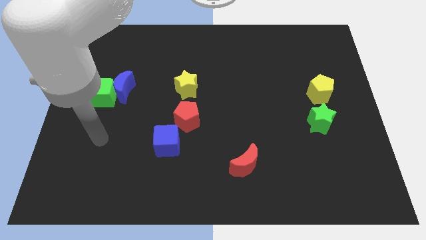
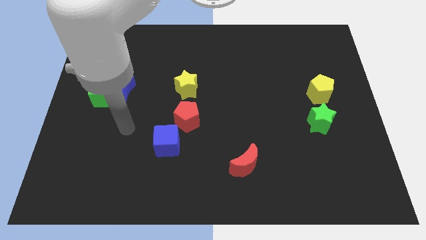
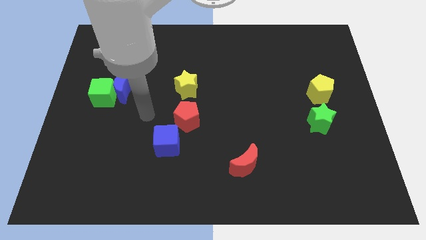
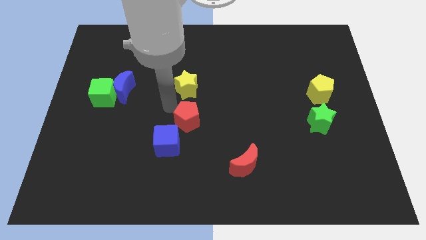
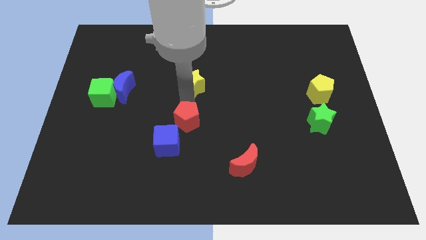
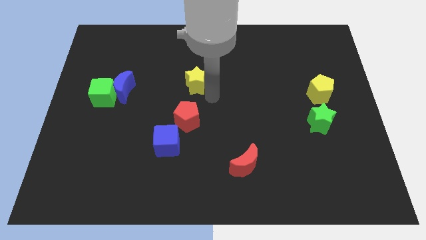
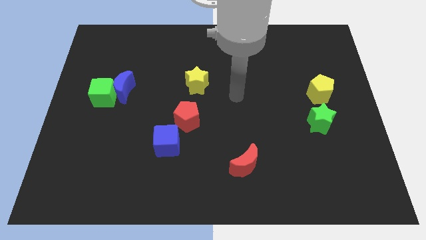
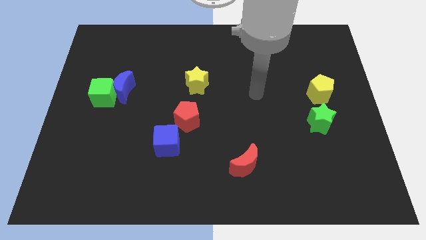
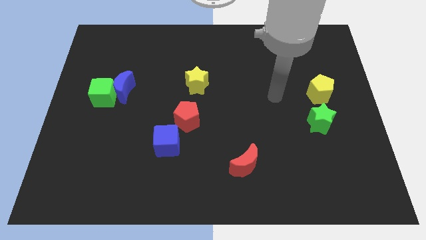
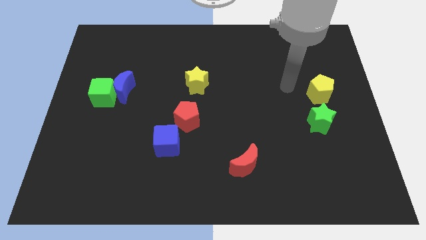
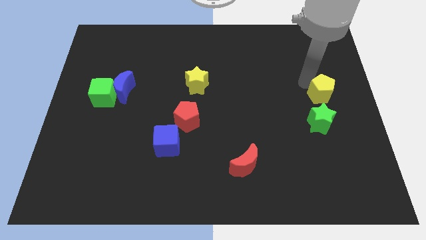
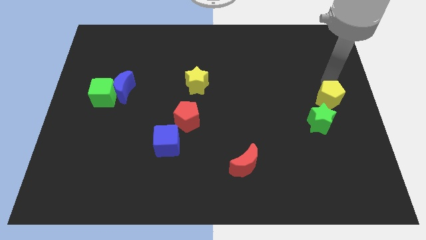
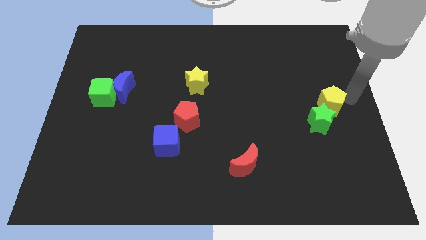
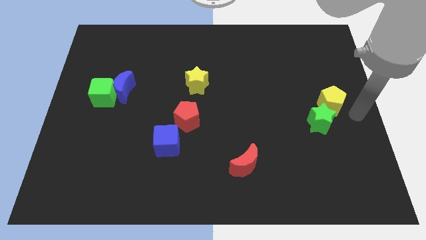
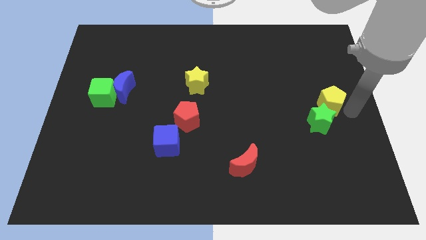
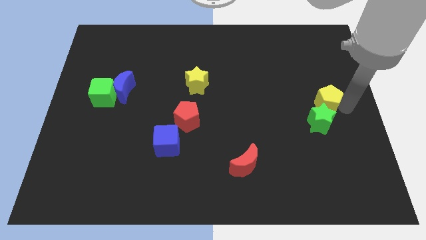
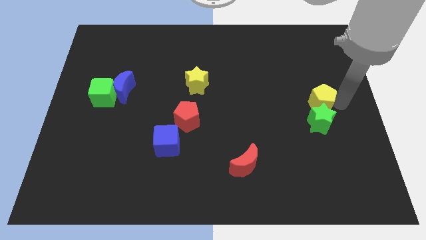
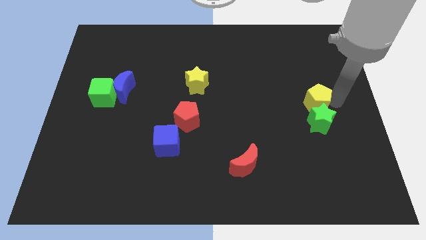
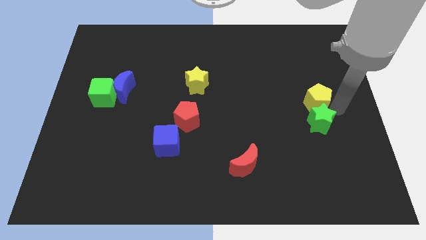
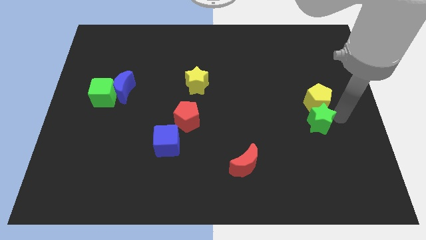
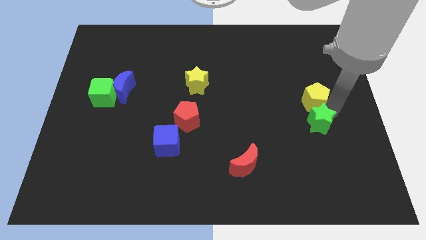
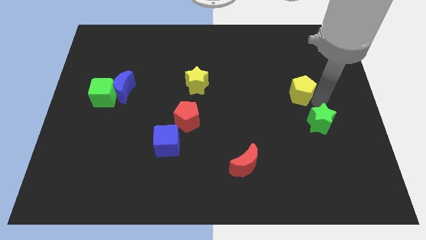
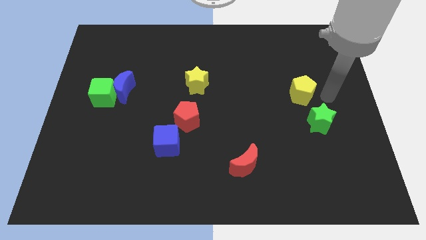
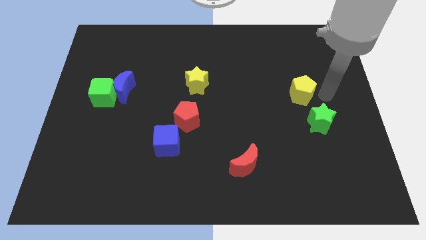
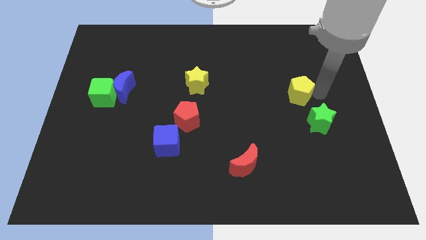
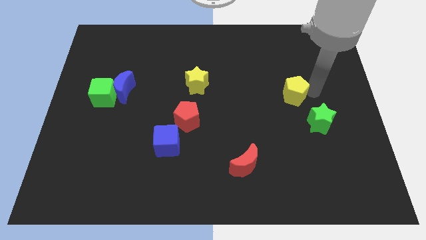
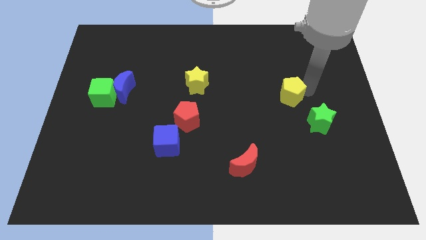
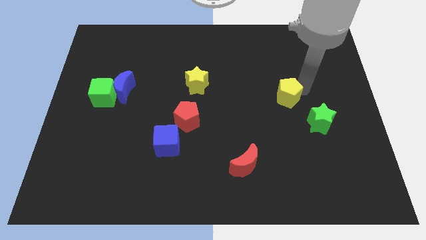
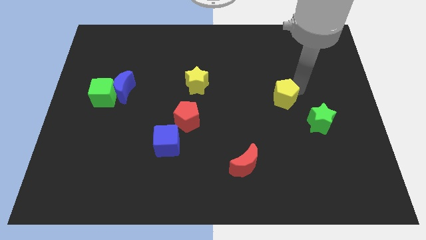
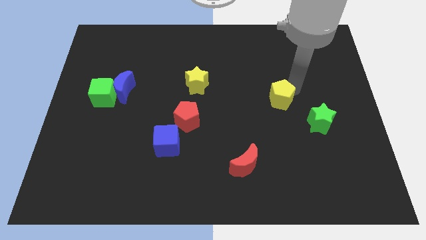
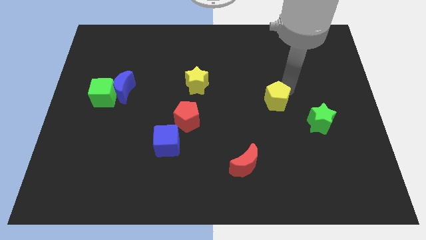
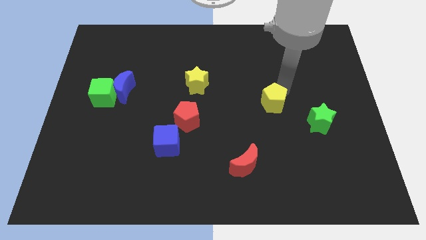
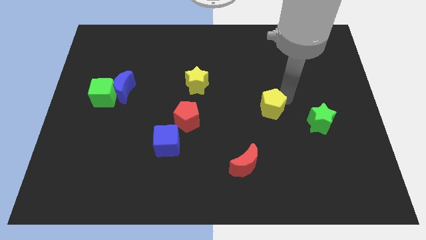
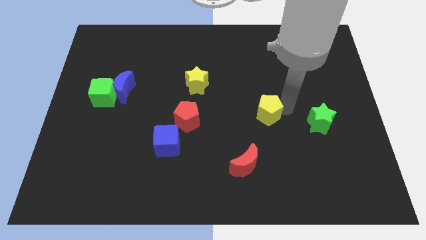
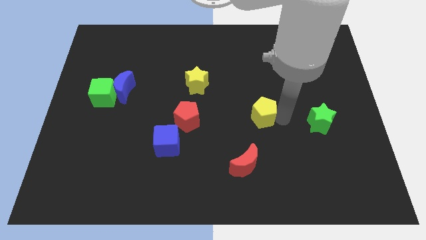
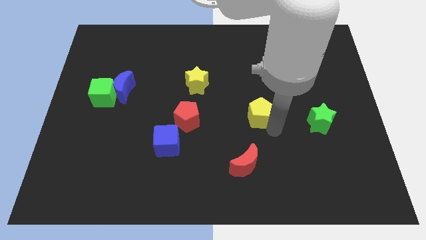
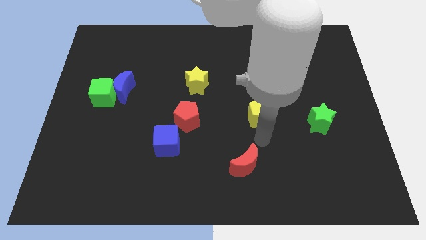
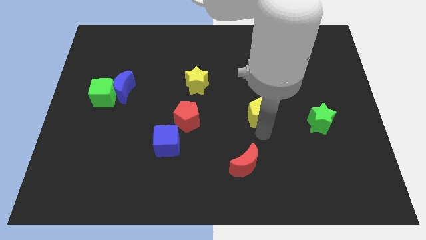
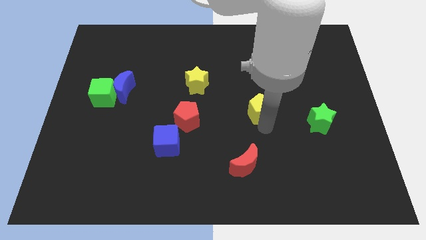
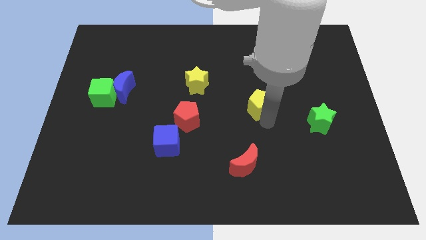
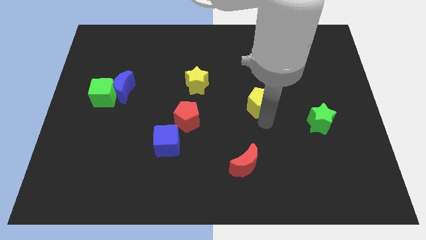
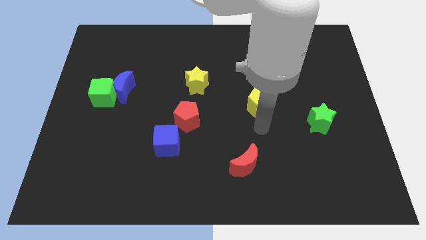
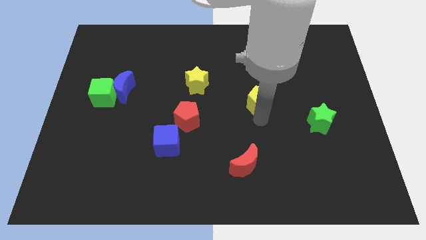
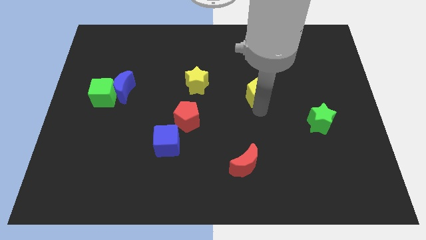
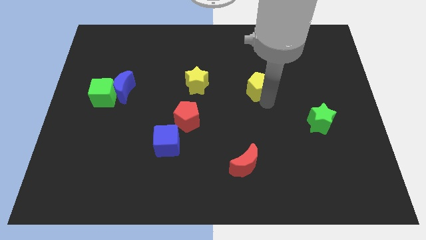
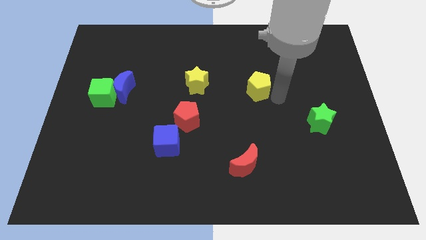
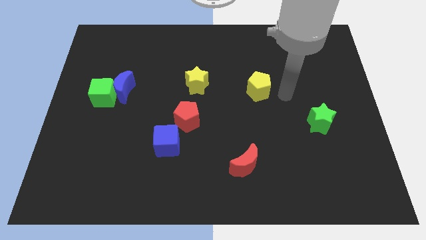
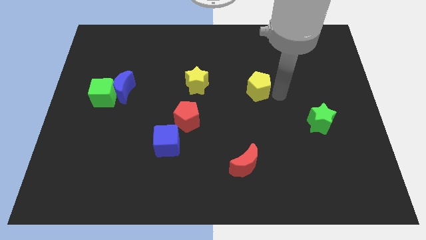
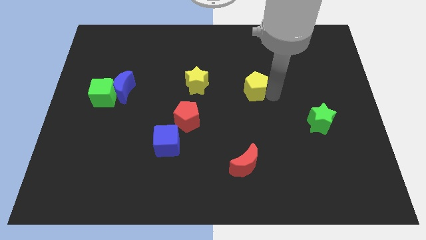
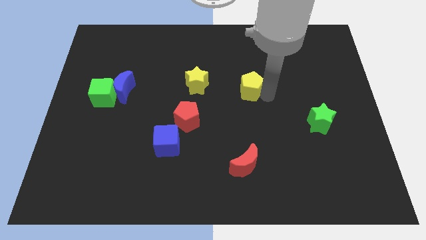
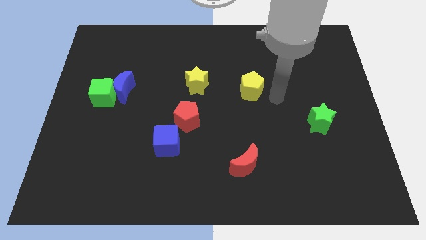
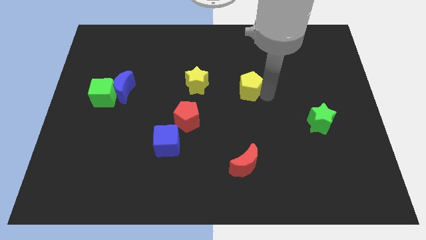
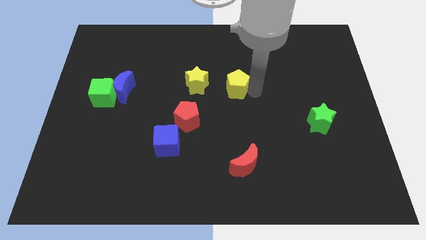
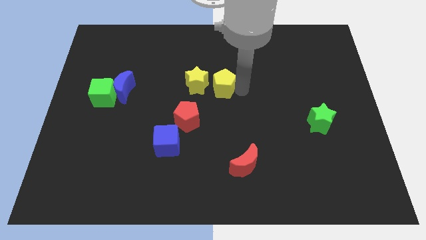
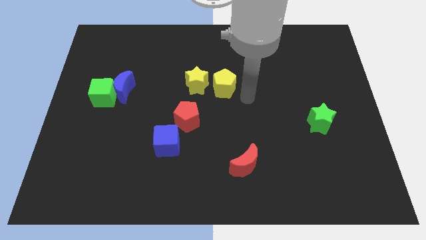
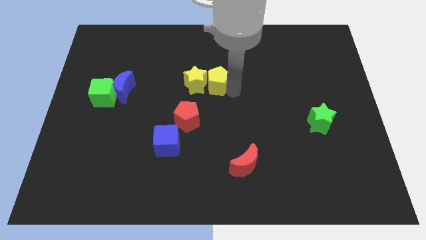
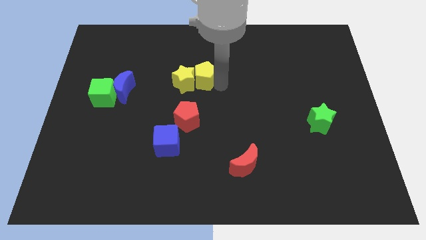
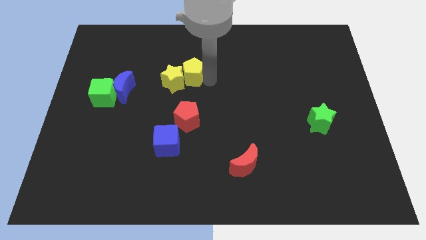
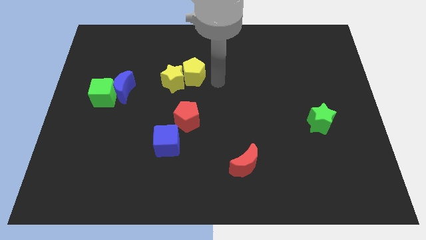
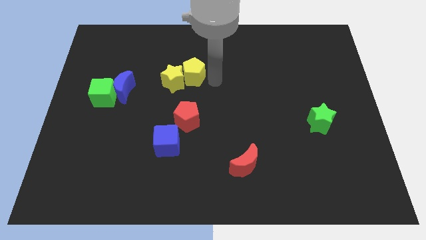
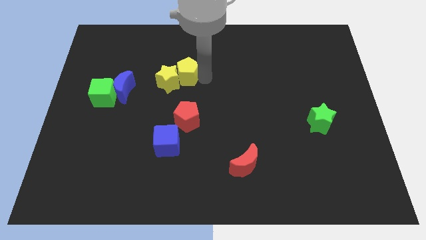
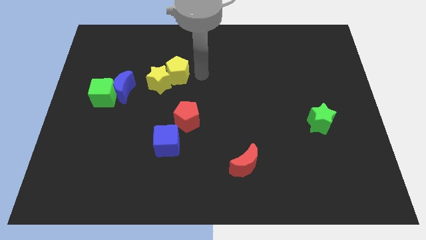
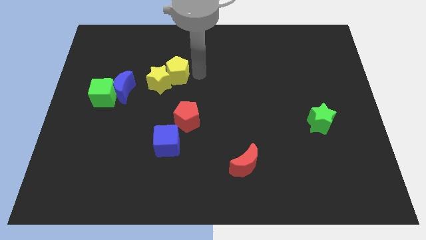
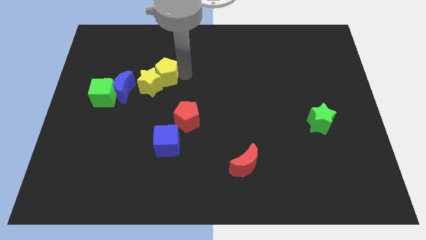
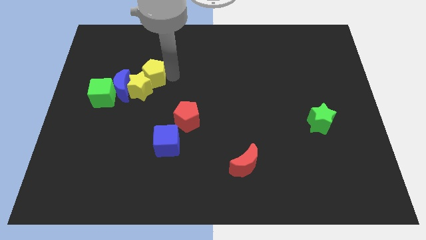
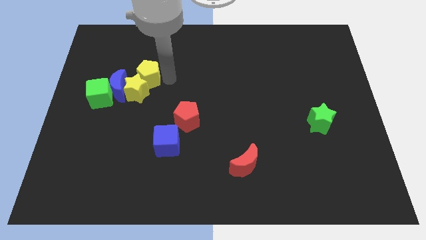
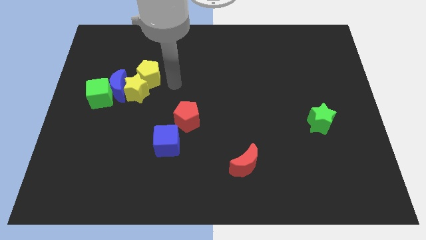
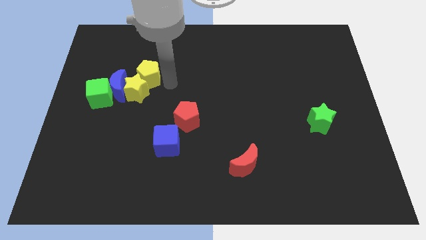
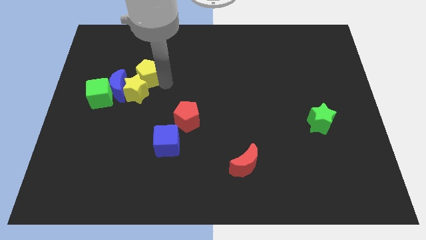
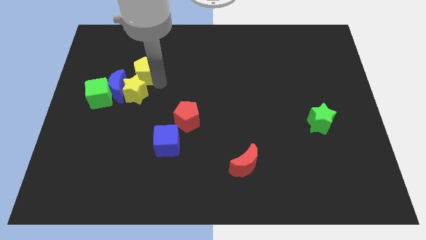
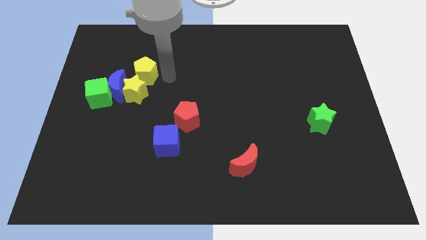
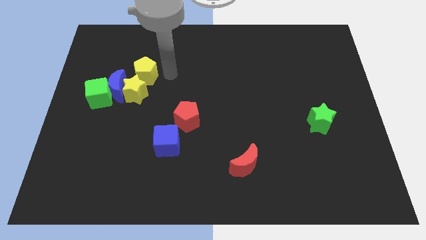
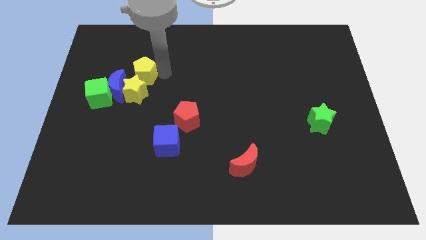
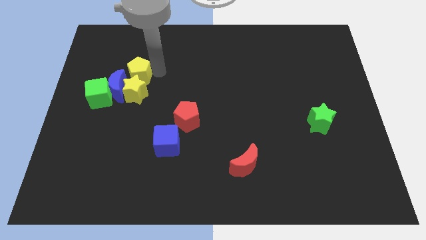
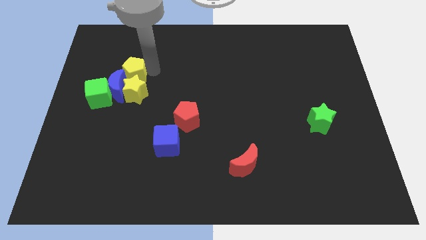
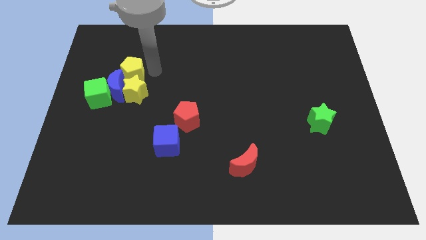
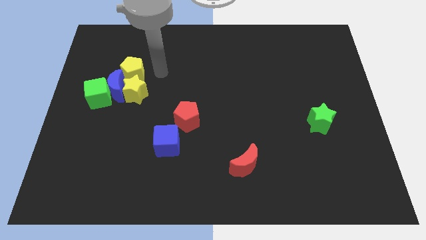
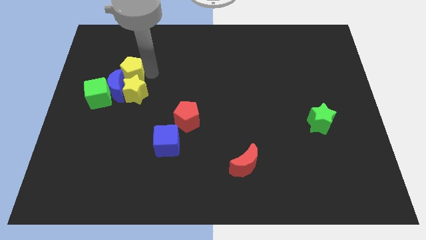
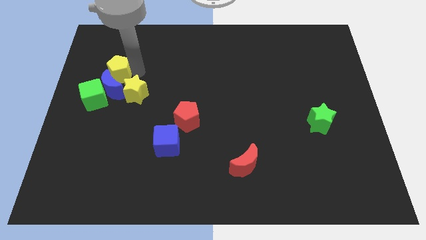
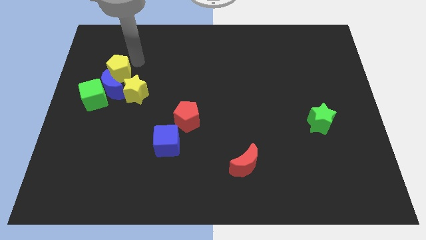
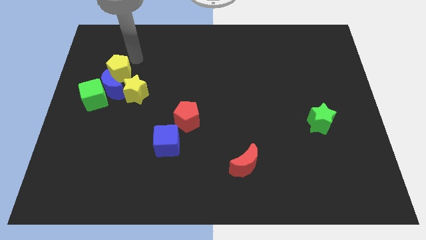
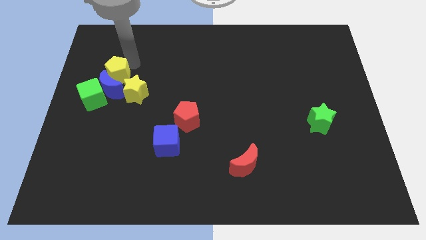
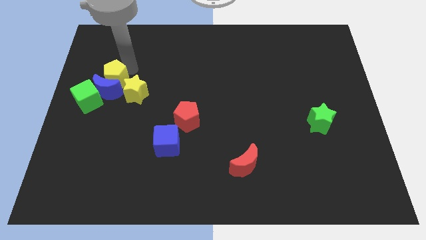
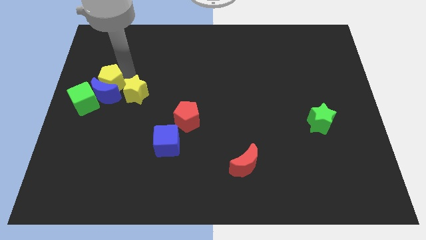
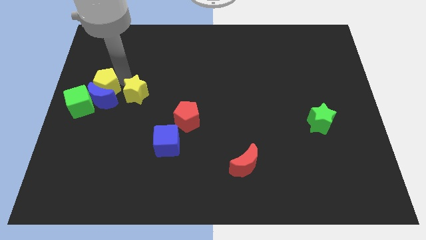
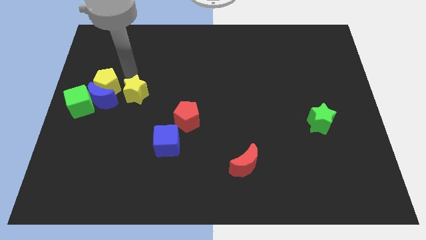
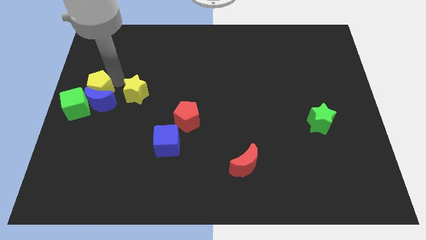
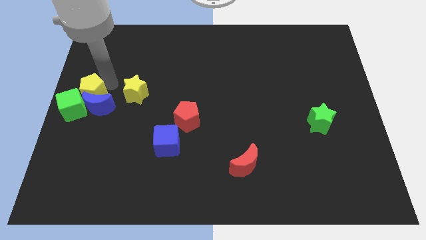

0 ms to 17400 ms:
move the yellow pentagon towards the green cube
